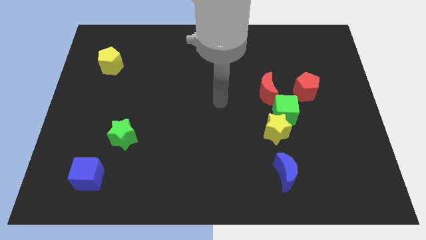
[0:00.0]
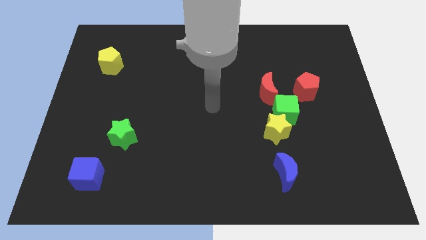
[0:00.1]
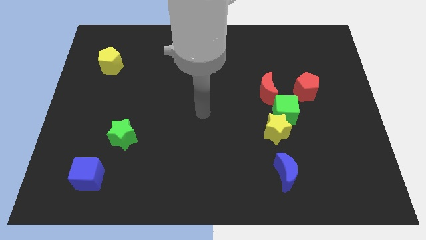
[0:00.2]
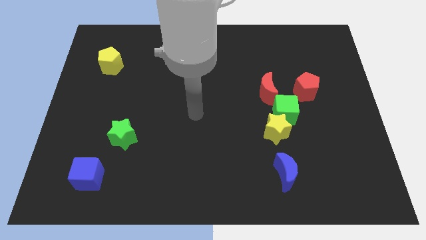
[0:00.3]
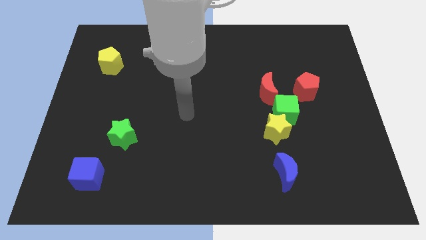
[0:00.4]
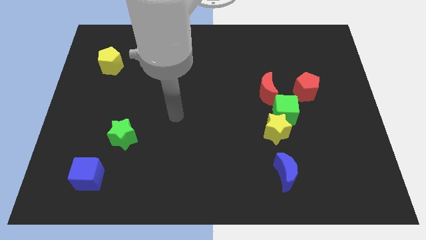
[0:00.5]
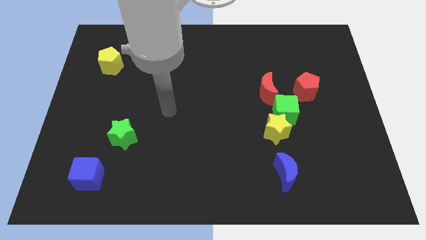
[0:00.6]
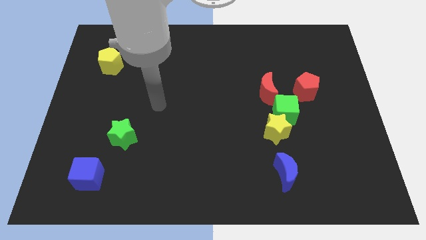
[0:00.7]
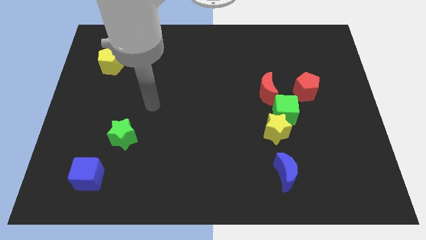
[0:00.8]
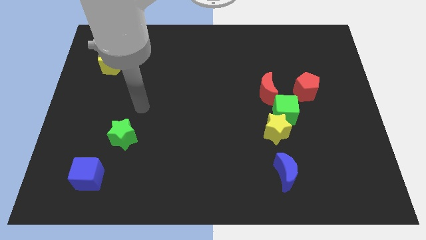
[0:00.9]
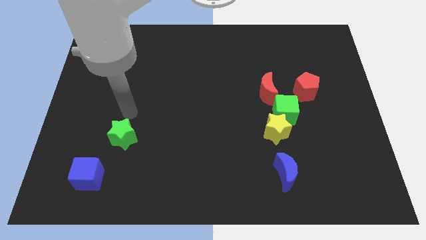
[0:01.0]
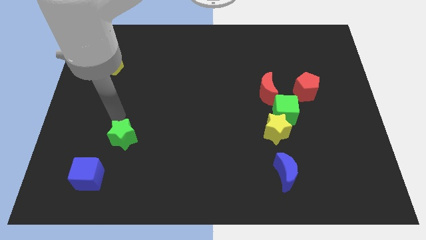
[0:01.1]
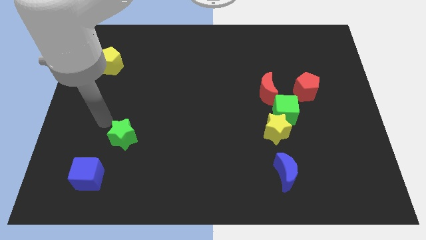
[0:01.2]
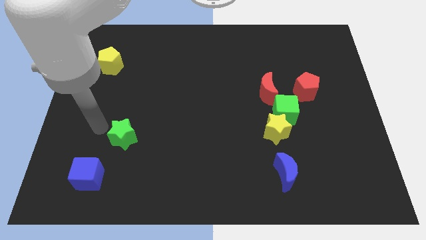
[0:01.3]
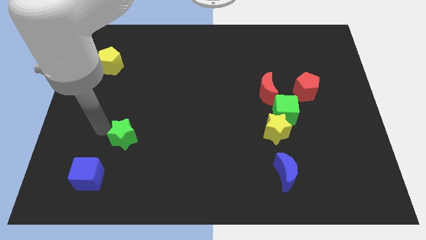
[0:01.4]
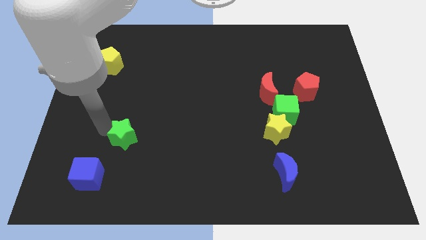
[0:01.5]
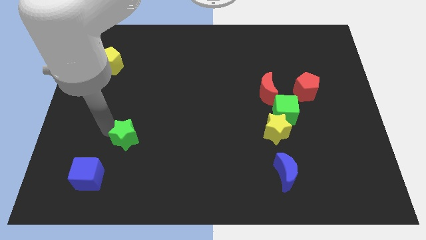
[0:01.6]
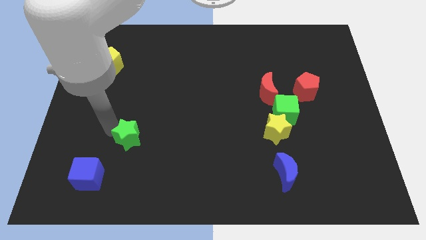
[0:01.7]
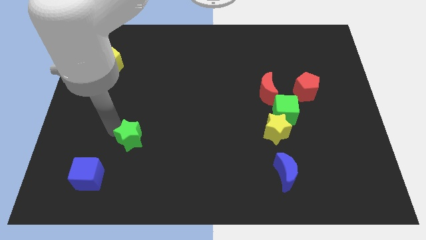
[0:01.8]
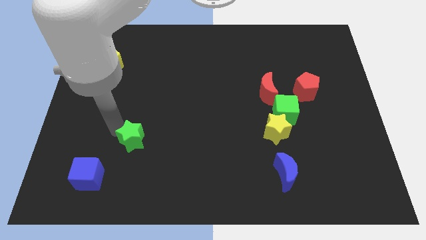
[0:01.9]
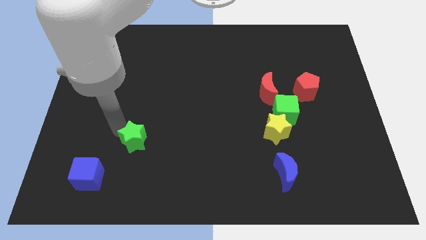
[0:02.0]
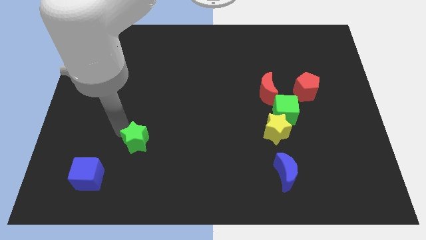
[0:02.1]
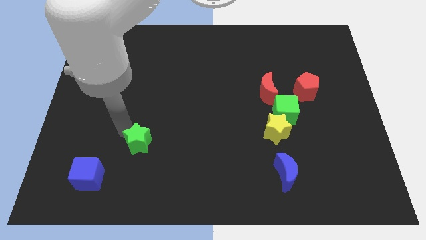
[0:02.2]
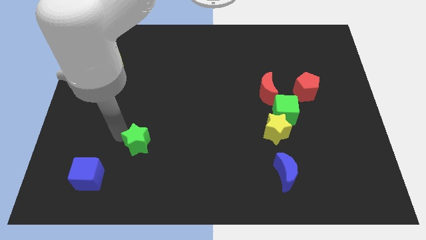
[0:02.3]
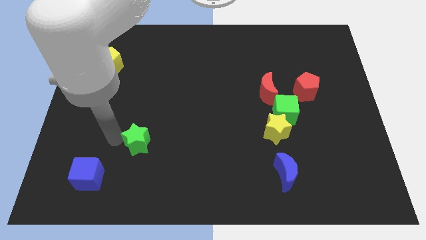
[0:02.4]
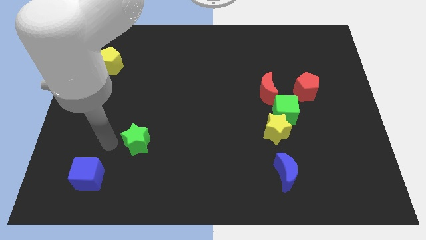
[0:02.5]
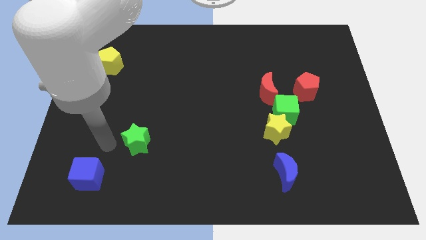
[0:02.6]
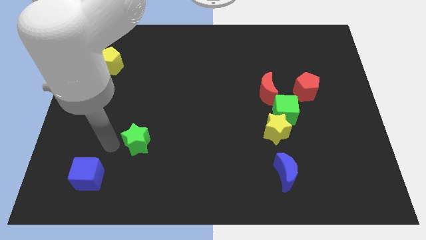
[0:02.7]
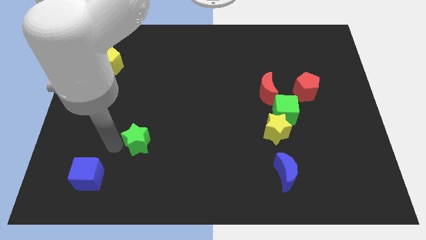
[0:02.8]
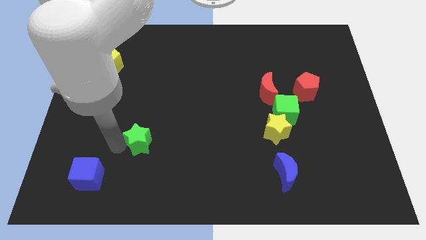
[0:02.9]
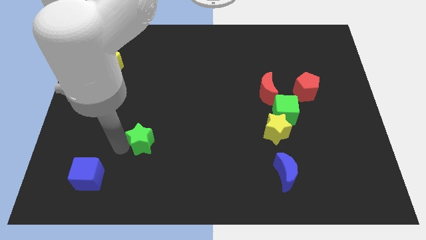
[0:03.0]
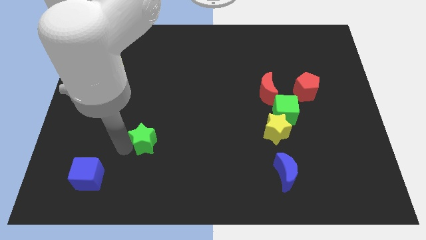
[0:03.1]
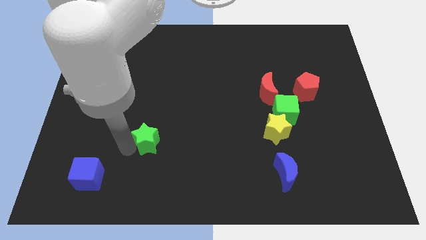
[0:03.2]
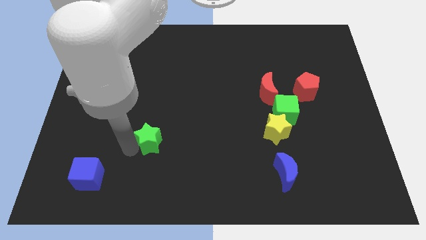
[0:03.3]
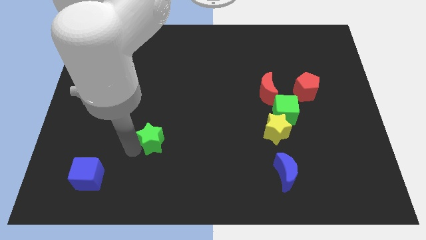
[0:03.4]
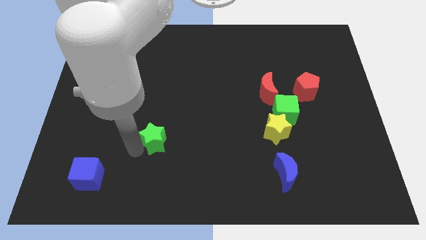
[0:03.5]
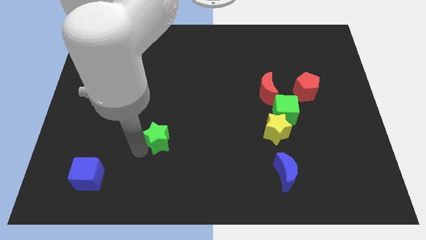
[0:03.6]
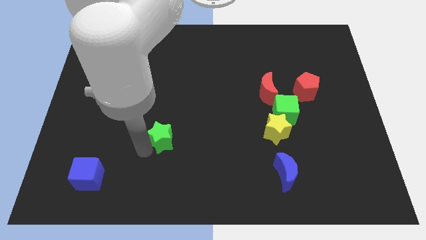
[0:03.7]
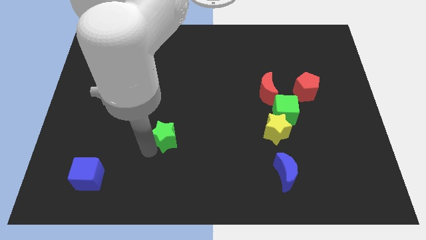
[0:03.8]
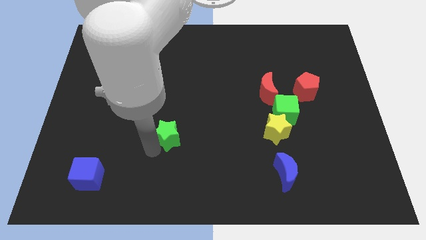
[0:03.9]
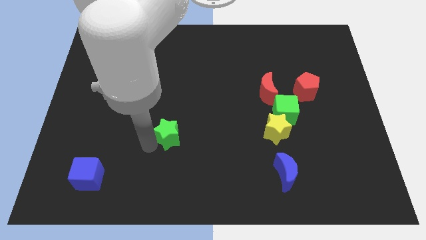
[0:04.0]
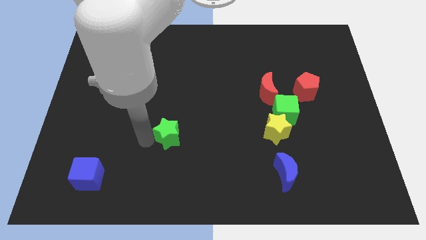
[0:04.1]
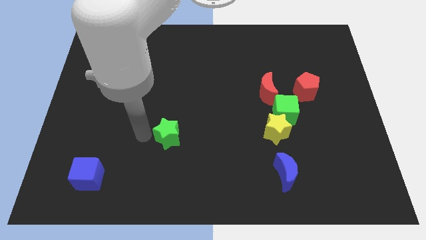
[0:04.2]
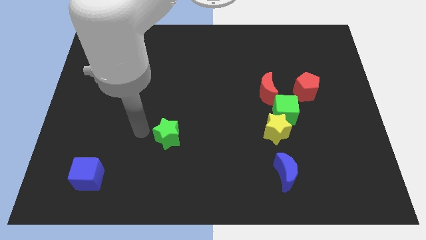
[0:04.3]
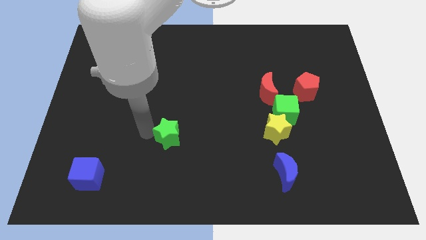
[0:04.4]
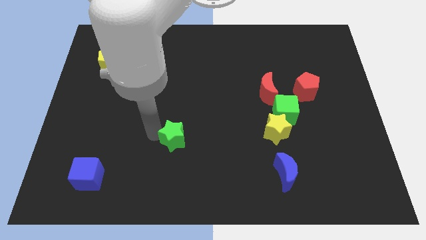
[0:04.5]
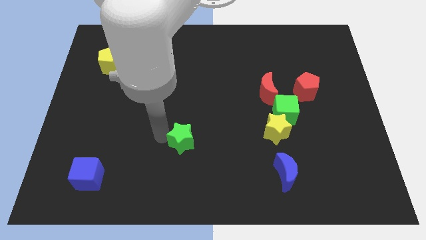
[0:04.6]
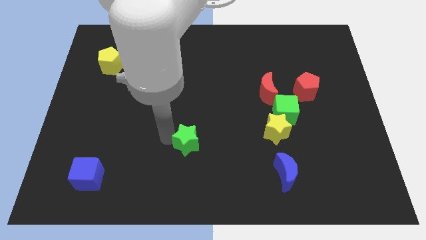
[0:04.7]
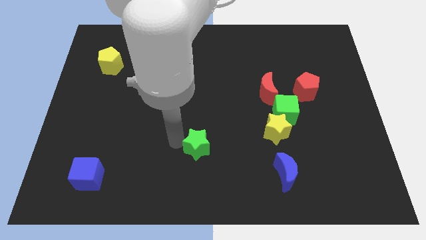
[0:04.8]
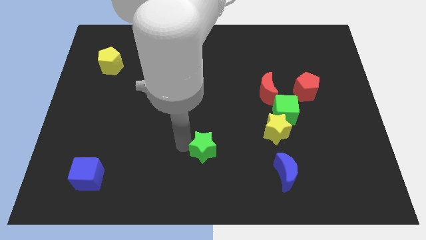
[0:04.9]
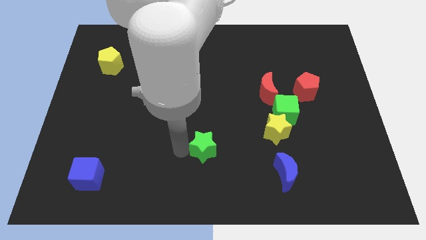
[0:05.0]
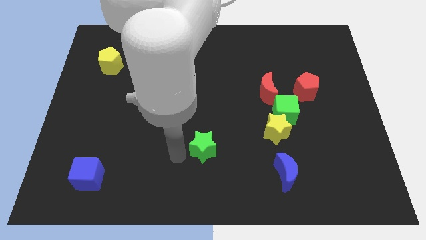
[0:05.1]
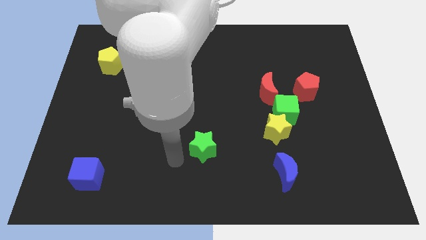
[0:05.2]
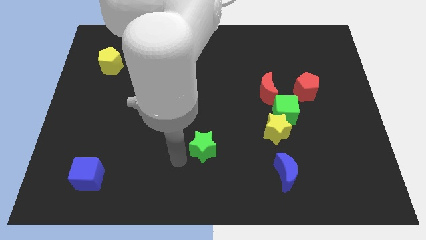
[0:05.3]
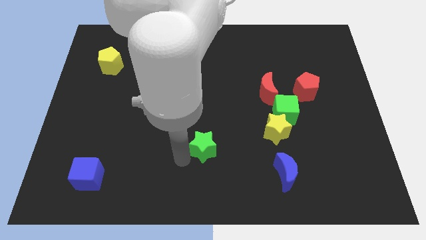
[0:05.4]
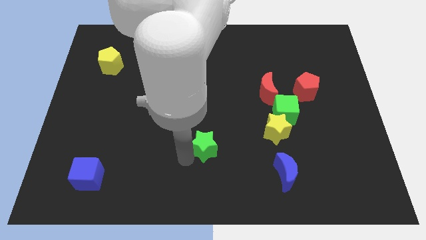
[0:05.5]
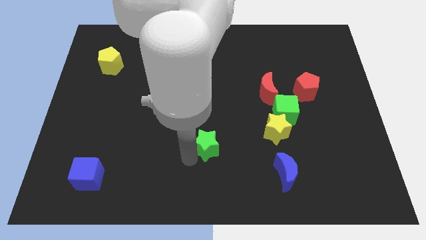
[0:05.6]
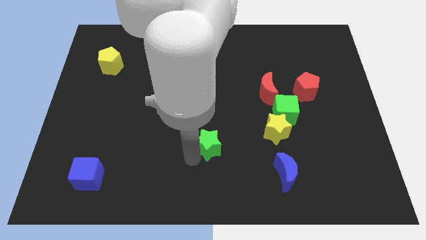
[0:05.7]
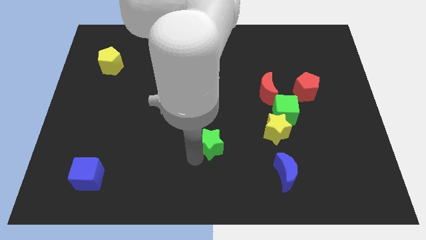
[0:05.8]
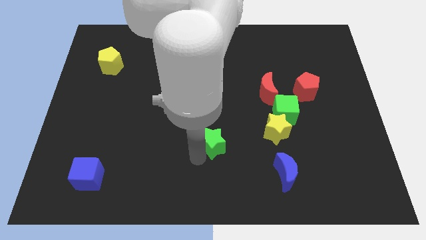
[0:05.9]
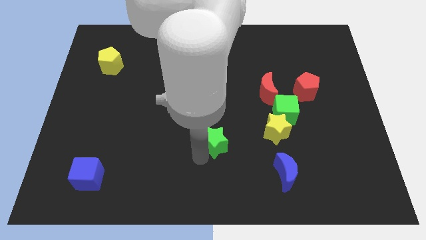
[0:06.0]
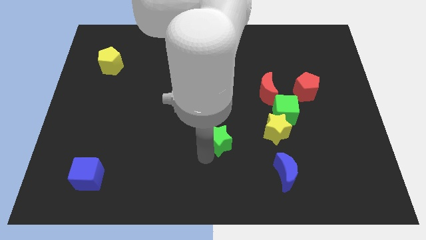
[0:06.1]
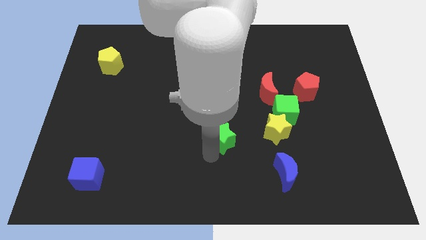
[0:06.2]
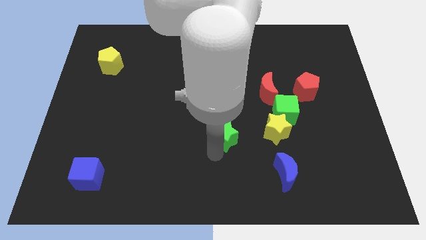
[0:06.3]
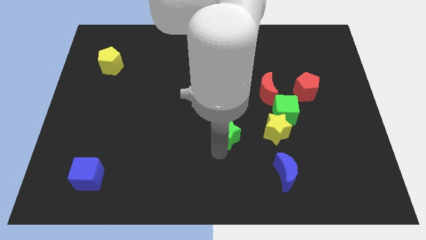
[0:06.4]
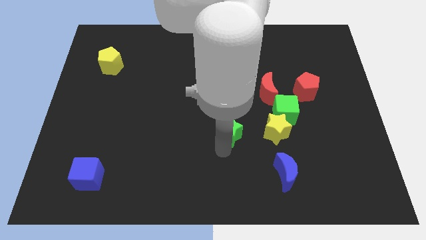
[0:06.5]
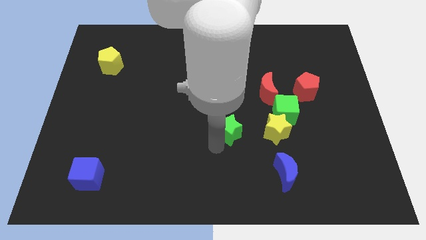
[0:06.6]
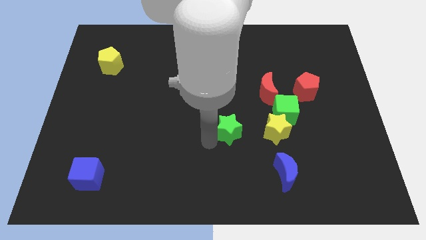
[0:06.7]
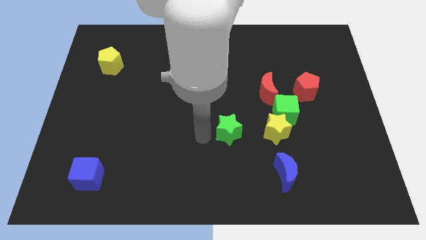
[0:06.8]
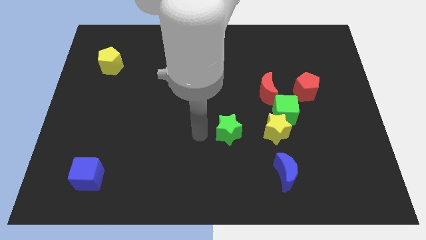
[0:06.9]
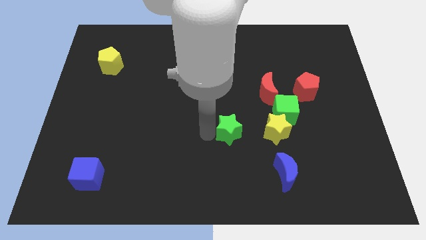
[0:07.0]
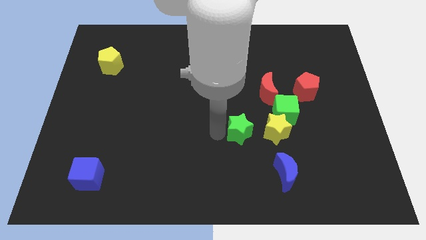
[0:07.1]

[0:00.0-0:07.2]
push the green star diagonally down and to the left of the green cube
